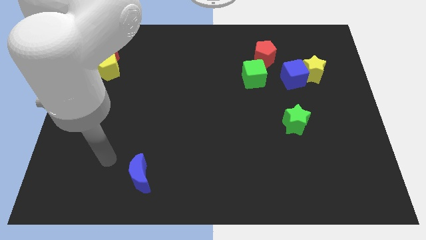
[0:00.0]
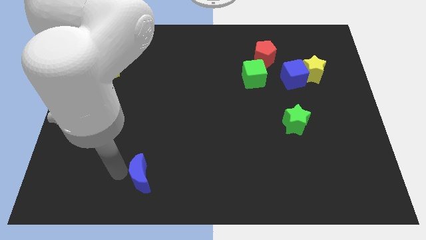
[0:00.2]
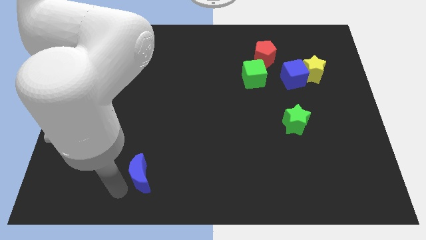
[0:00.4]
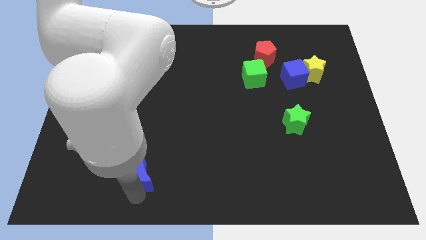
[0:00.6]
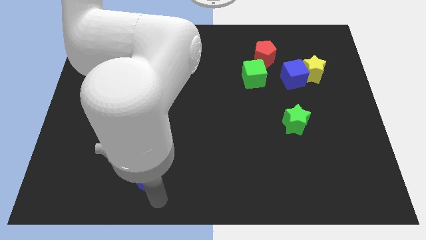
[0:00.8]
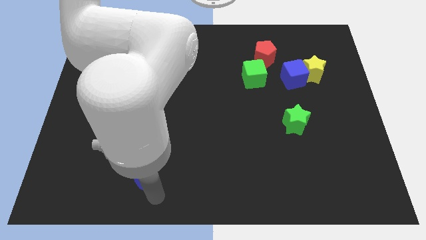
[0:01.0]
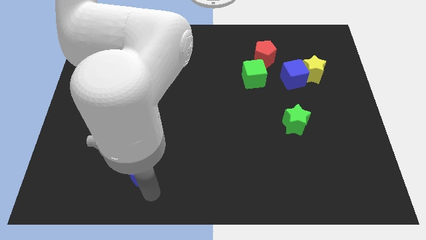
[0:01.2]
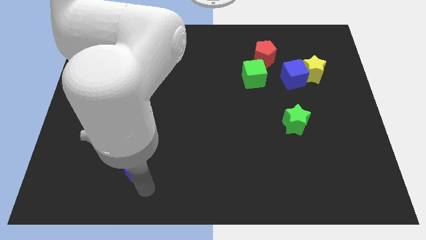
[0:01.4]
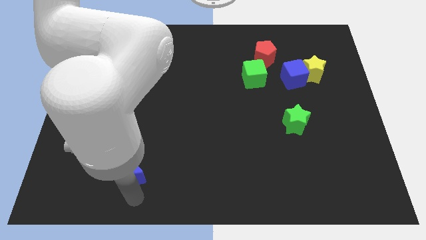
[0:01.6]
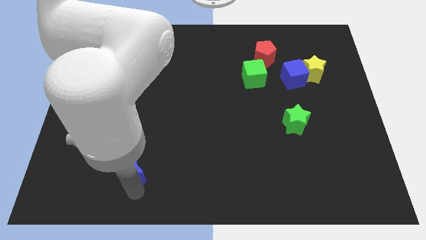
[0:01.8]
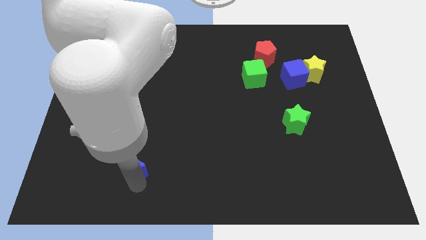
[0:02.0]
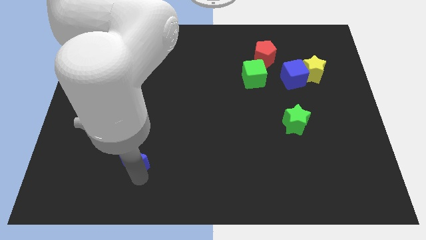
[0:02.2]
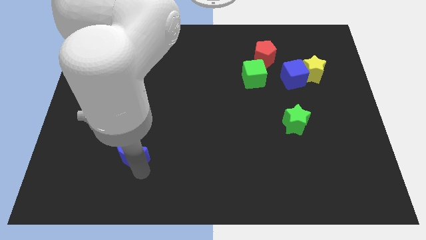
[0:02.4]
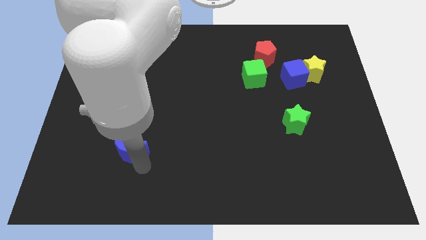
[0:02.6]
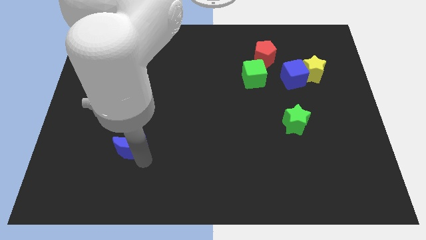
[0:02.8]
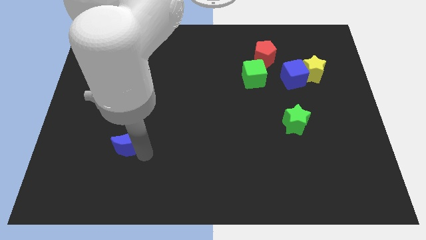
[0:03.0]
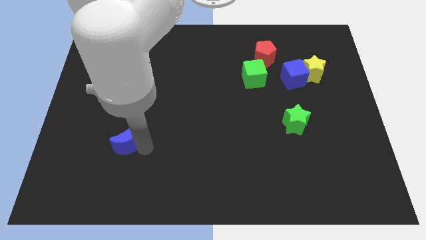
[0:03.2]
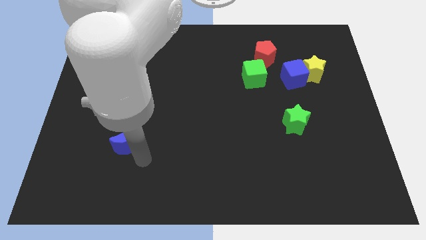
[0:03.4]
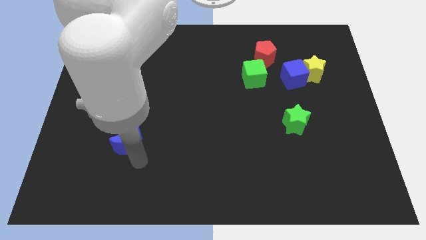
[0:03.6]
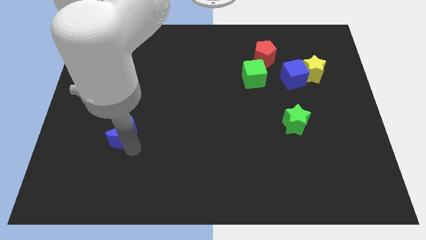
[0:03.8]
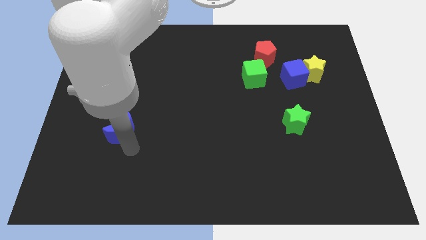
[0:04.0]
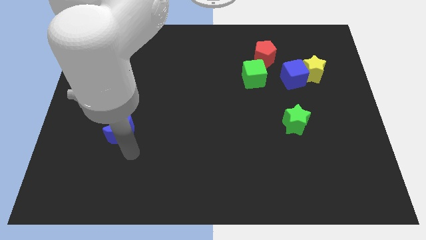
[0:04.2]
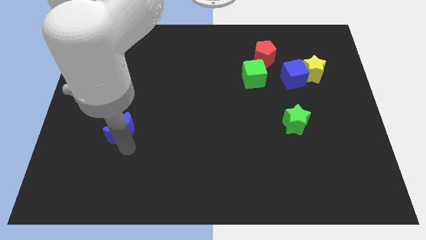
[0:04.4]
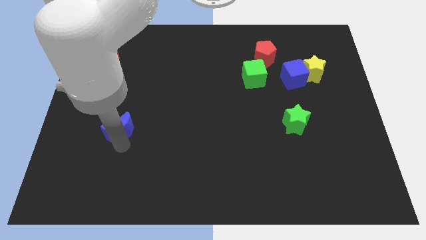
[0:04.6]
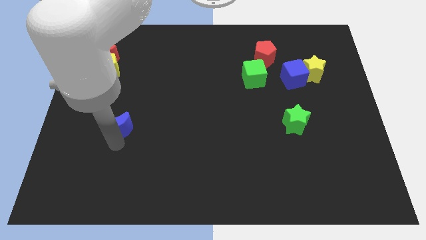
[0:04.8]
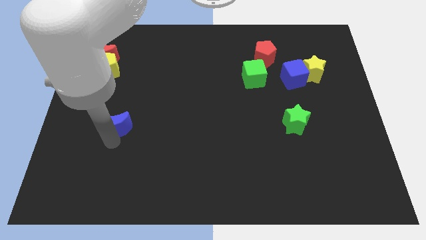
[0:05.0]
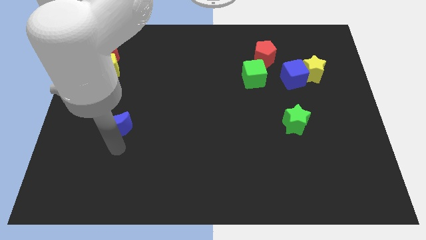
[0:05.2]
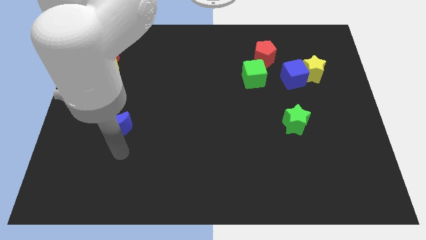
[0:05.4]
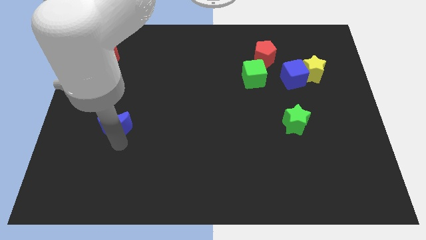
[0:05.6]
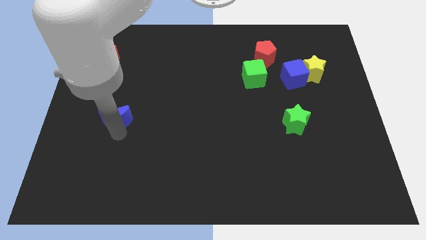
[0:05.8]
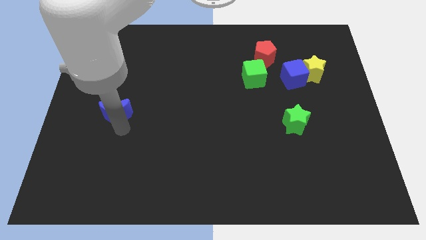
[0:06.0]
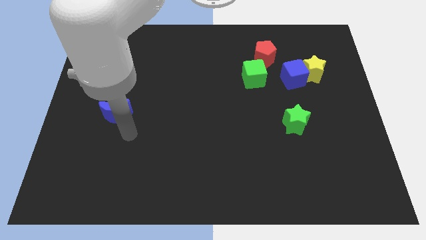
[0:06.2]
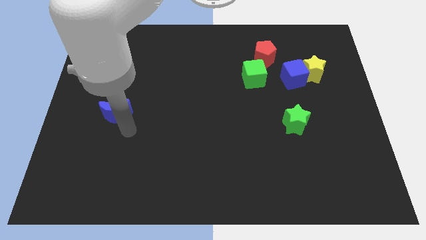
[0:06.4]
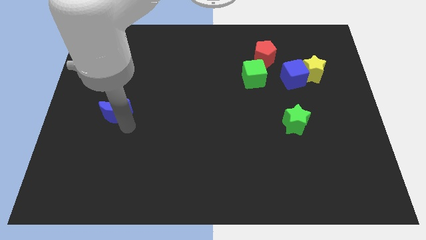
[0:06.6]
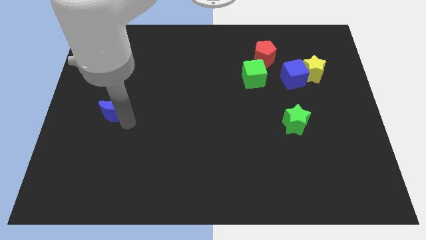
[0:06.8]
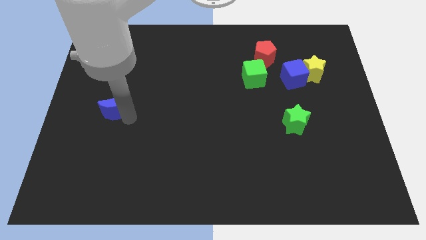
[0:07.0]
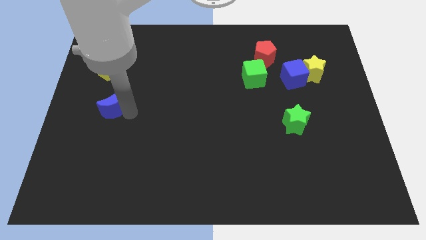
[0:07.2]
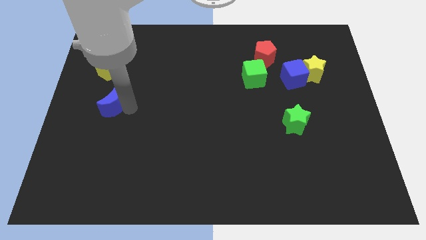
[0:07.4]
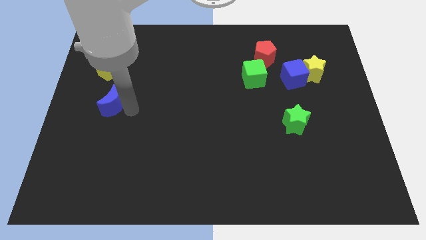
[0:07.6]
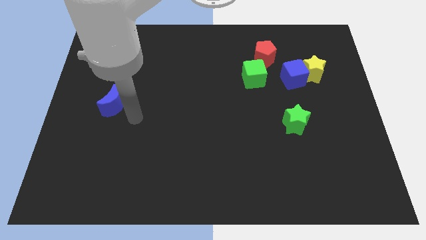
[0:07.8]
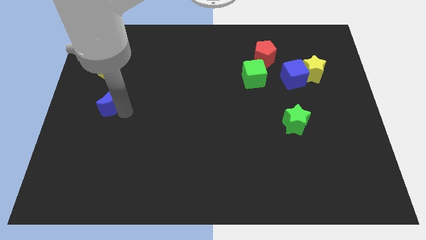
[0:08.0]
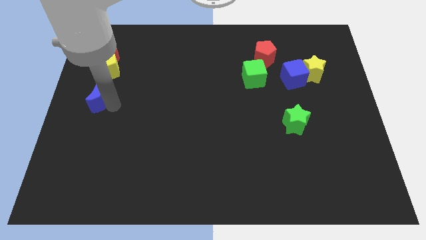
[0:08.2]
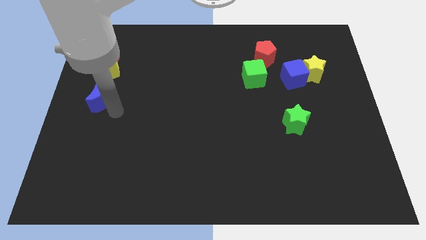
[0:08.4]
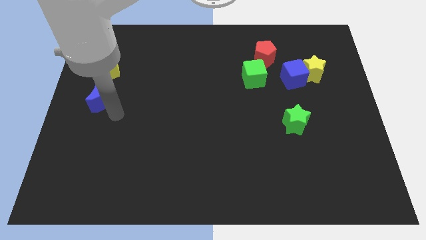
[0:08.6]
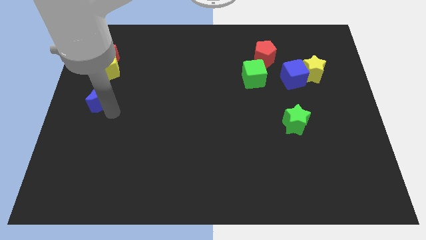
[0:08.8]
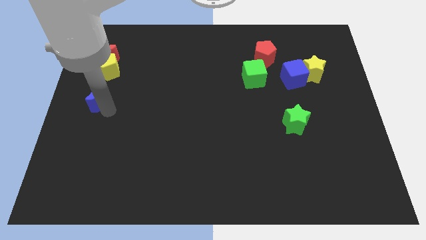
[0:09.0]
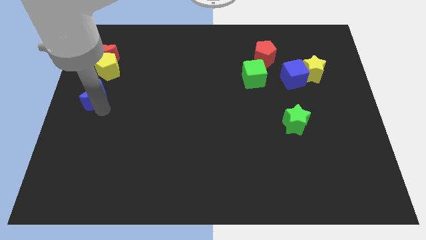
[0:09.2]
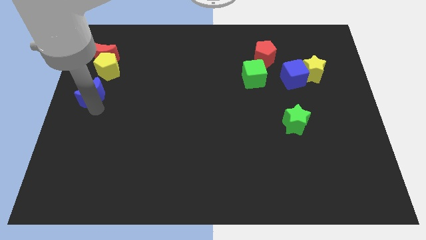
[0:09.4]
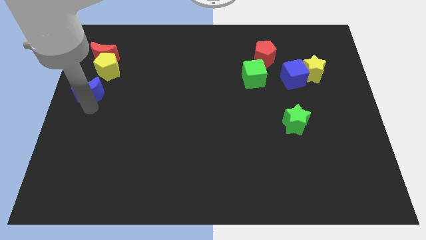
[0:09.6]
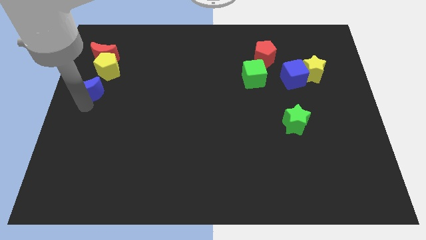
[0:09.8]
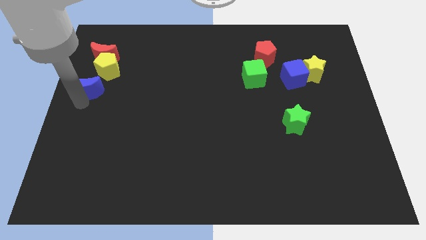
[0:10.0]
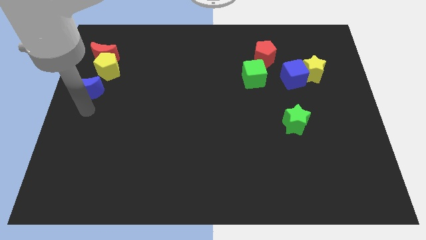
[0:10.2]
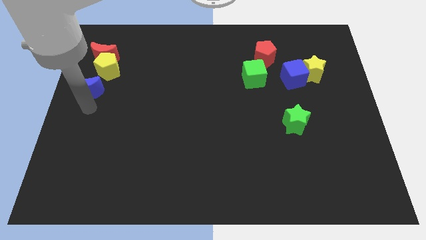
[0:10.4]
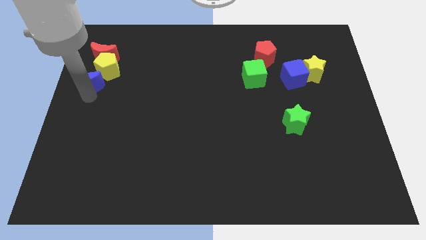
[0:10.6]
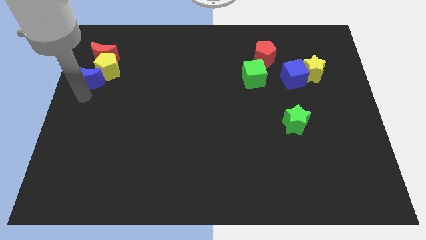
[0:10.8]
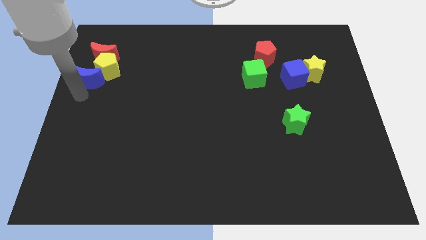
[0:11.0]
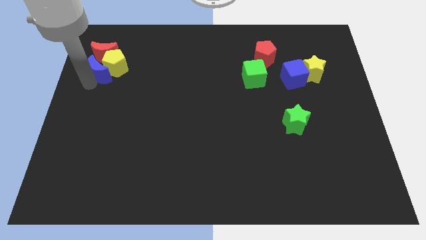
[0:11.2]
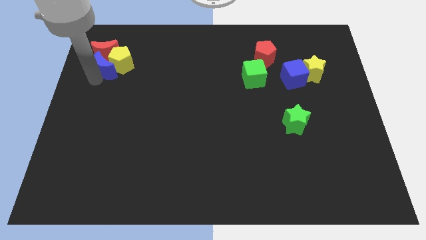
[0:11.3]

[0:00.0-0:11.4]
push the blue moon next to the red moon

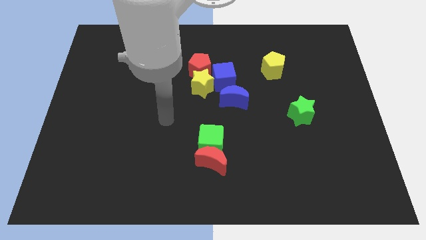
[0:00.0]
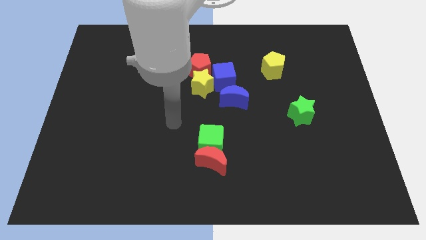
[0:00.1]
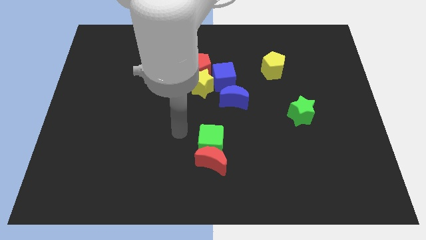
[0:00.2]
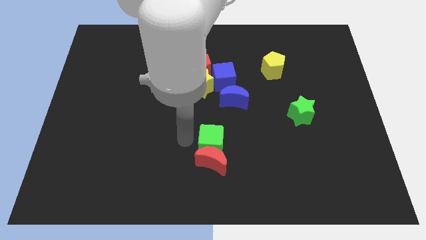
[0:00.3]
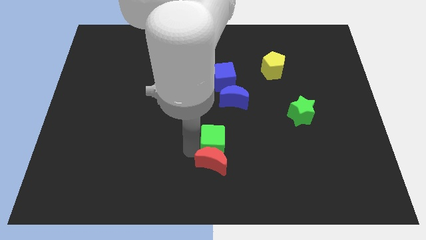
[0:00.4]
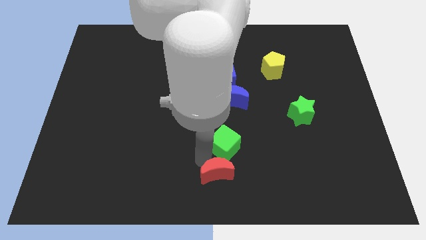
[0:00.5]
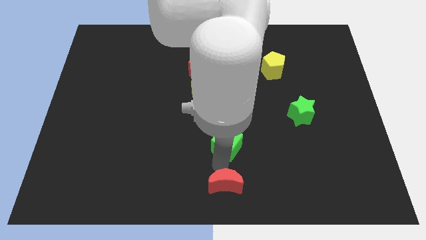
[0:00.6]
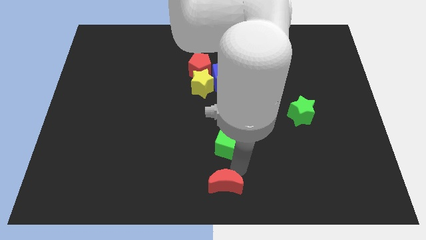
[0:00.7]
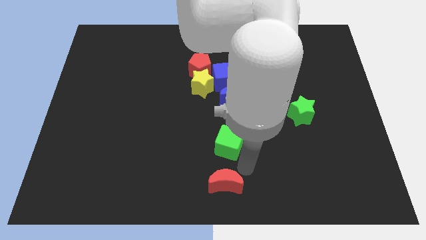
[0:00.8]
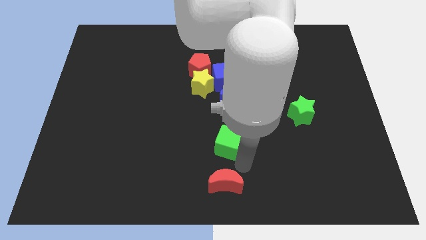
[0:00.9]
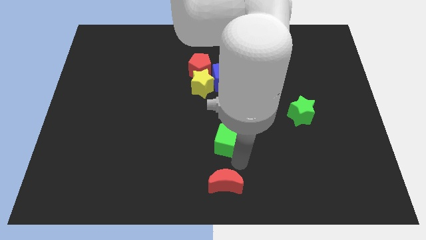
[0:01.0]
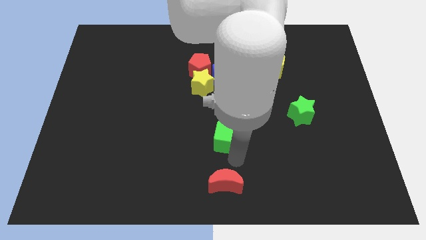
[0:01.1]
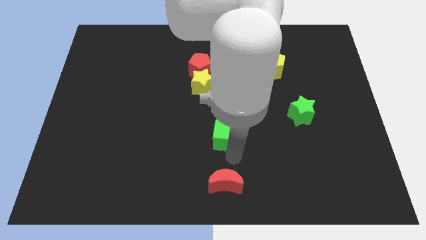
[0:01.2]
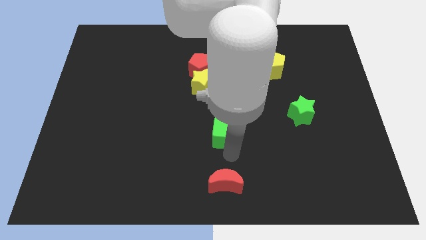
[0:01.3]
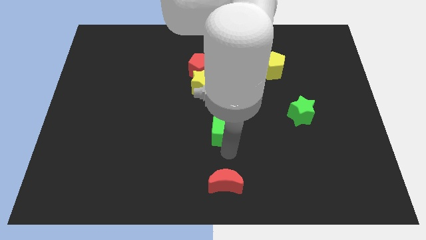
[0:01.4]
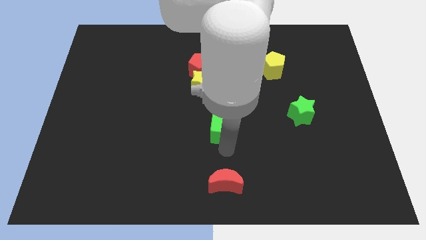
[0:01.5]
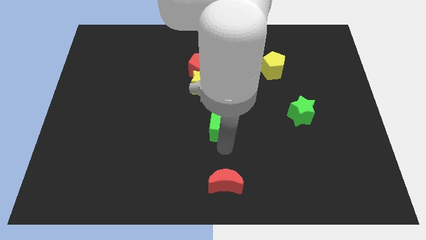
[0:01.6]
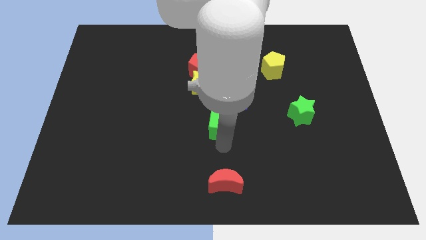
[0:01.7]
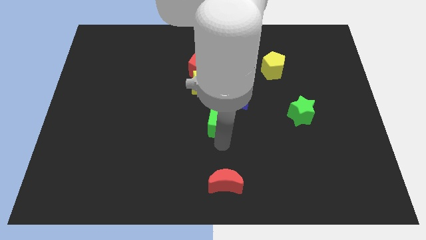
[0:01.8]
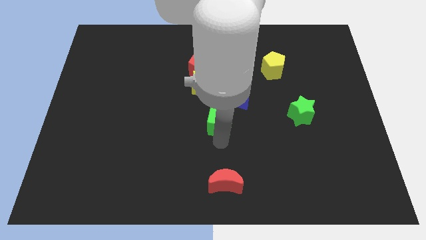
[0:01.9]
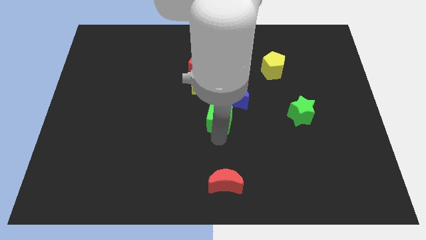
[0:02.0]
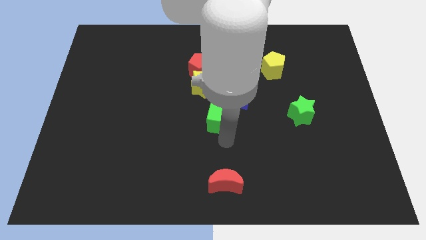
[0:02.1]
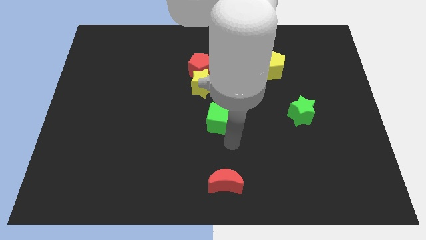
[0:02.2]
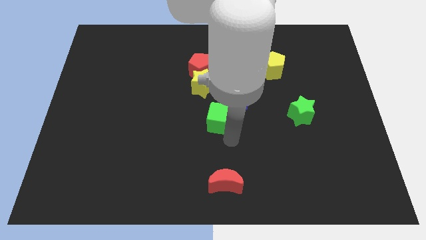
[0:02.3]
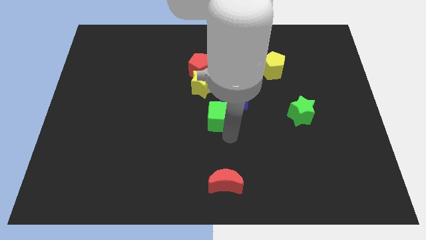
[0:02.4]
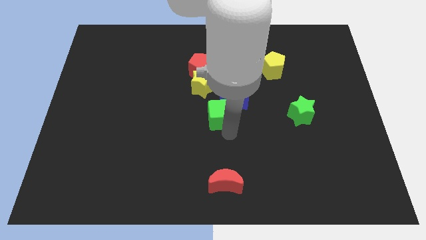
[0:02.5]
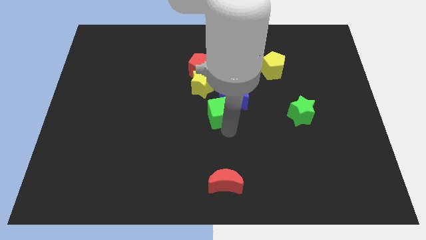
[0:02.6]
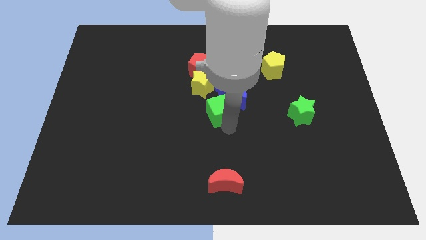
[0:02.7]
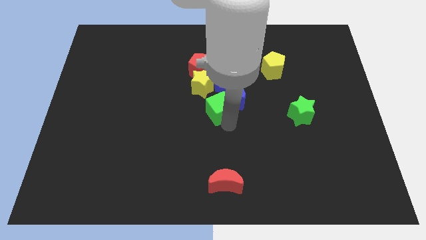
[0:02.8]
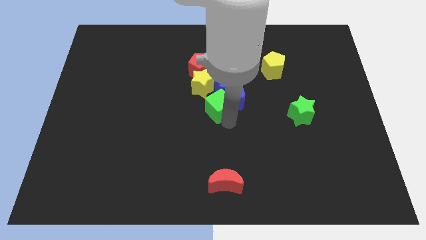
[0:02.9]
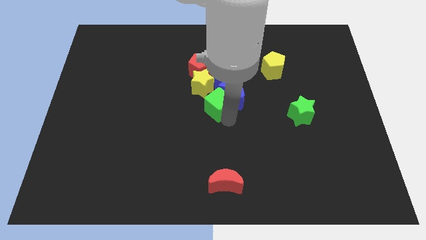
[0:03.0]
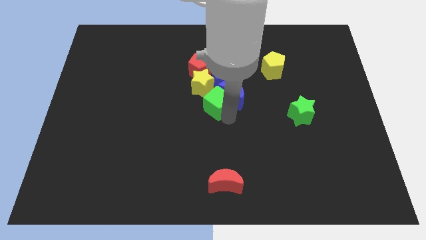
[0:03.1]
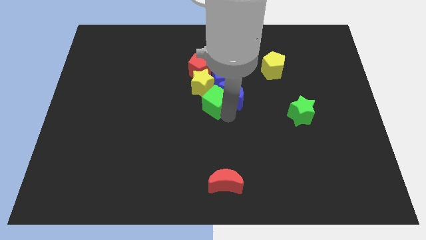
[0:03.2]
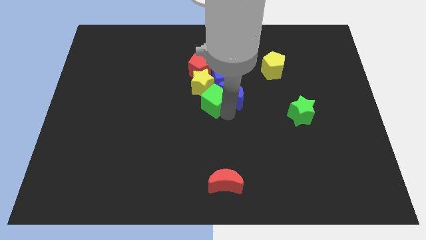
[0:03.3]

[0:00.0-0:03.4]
move the green cube close to the yellow star
